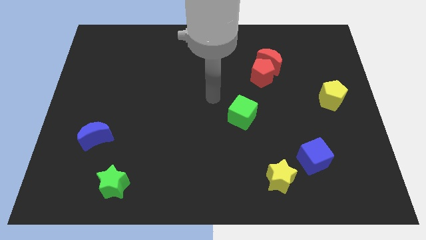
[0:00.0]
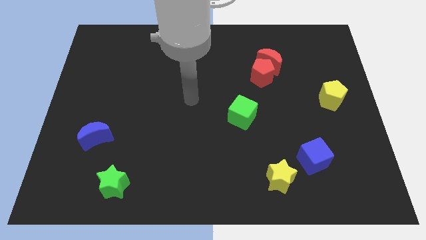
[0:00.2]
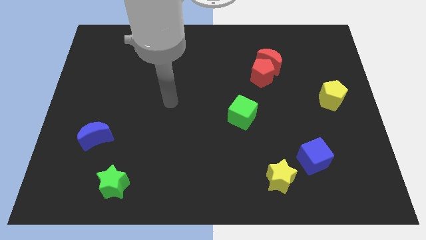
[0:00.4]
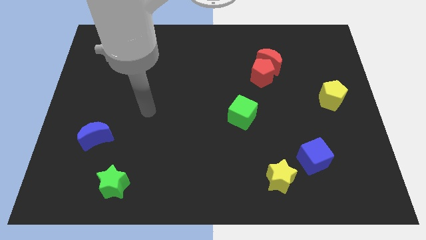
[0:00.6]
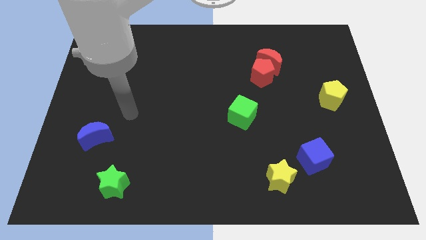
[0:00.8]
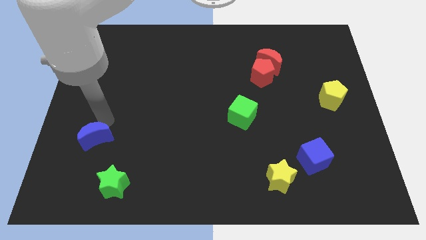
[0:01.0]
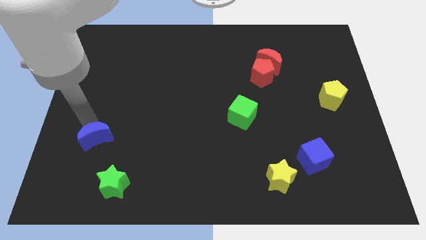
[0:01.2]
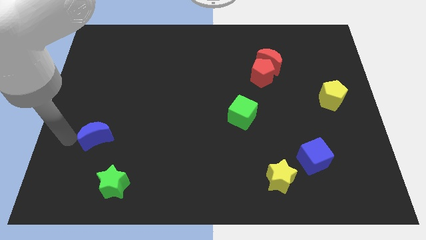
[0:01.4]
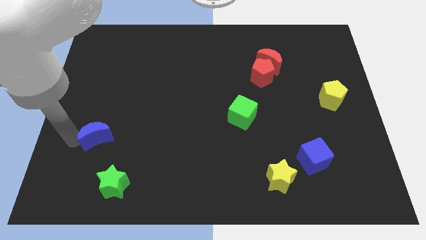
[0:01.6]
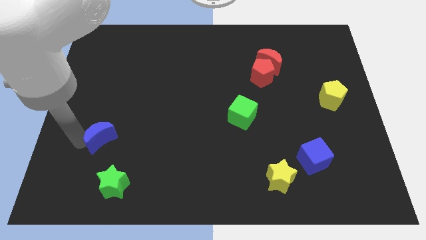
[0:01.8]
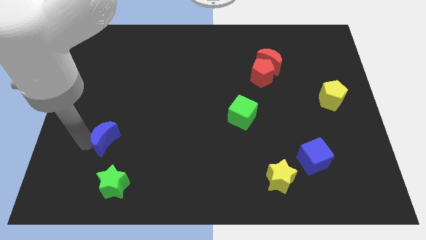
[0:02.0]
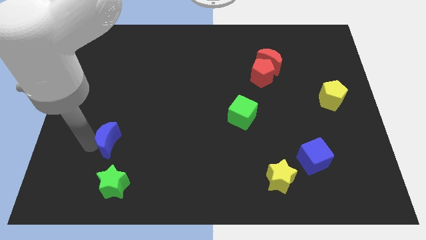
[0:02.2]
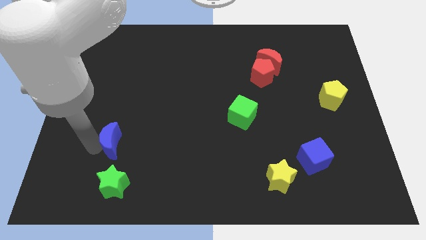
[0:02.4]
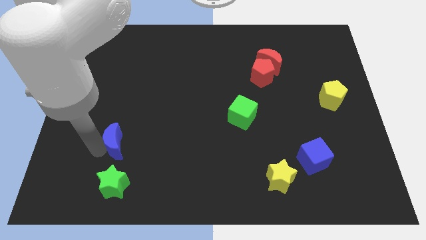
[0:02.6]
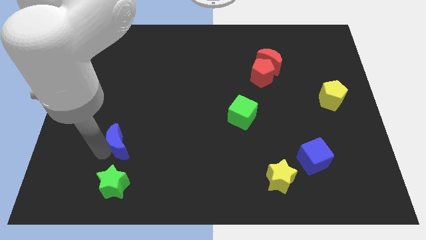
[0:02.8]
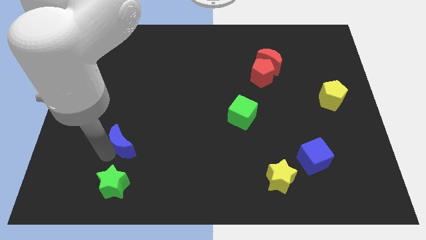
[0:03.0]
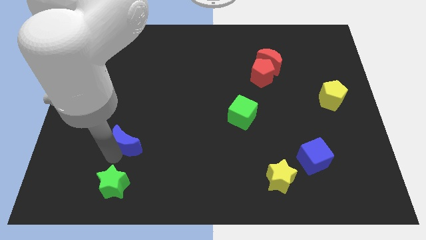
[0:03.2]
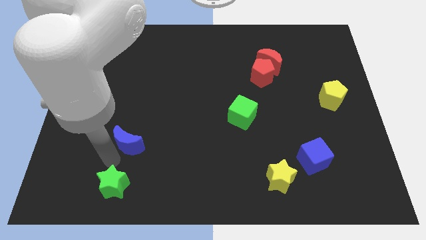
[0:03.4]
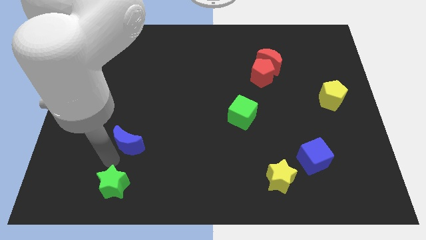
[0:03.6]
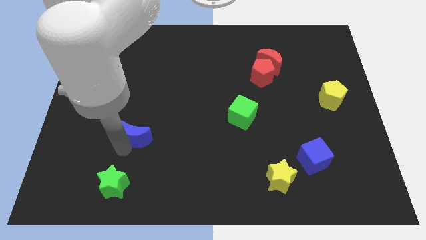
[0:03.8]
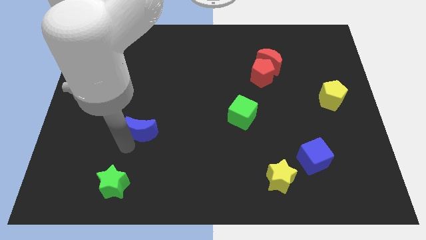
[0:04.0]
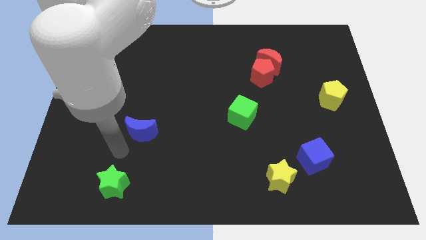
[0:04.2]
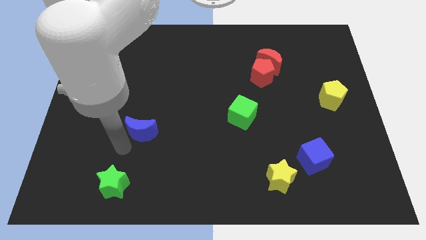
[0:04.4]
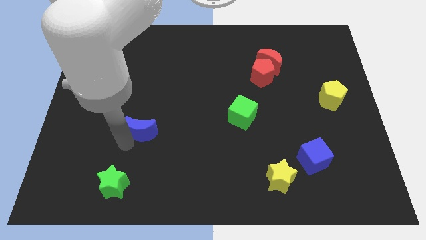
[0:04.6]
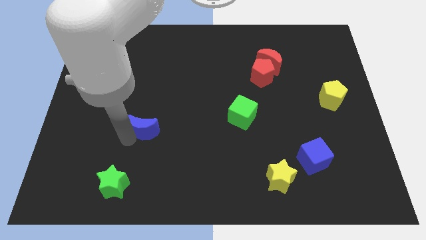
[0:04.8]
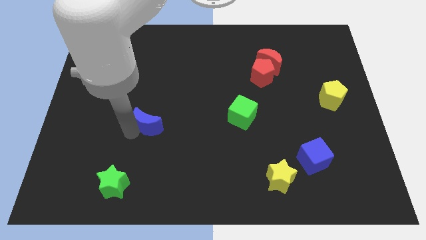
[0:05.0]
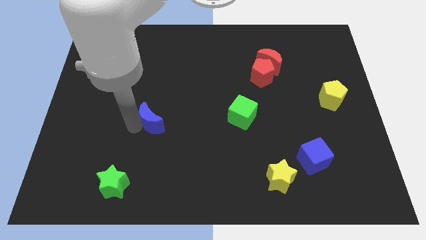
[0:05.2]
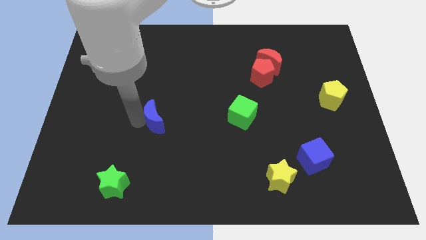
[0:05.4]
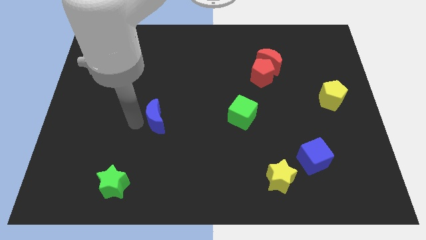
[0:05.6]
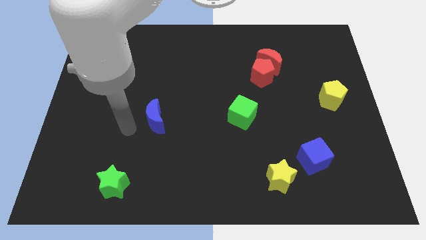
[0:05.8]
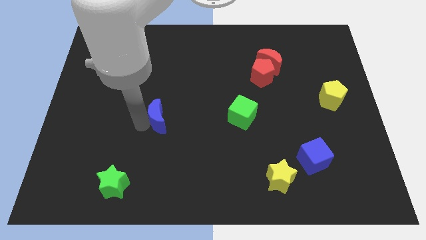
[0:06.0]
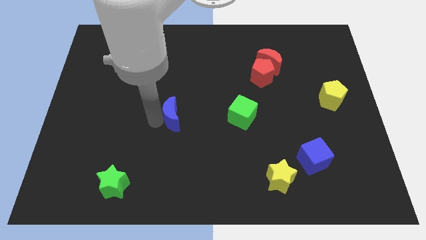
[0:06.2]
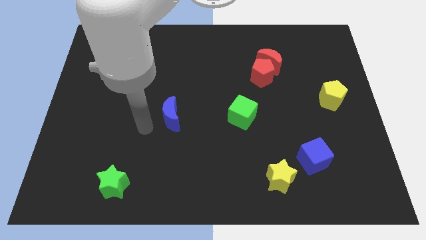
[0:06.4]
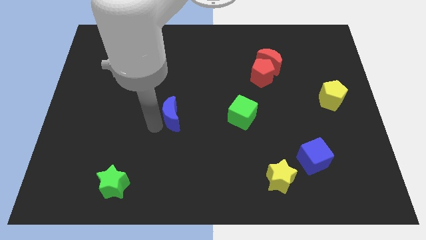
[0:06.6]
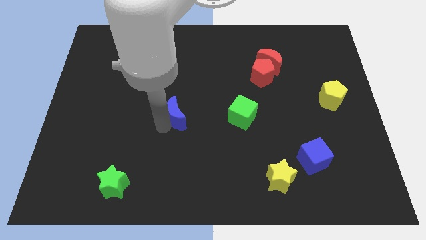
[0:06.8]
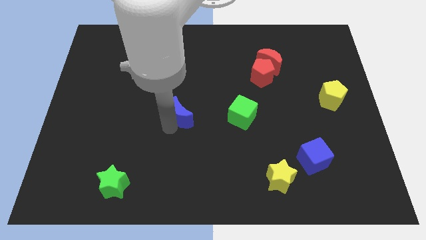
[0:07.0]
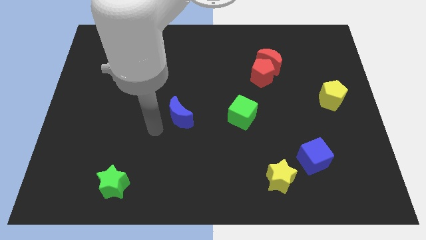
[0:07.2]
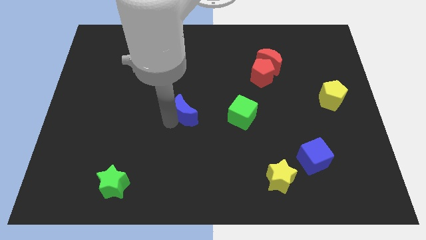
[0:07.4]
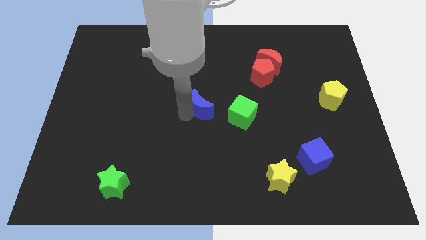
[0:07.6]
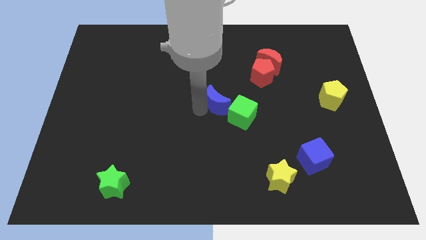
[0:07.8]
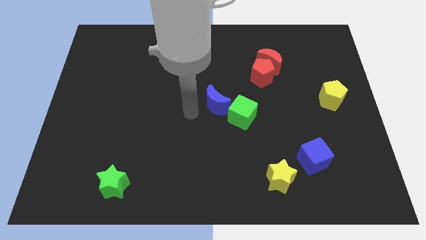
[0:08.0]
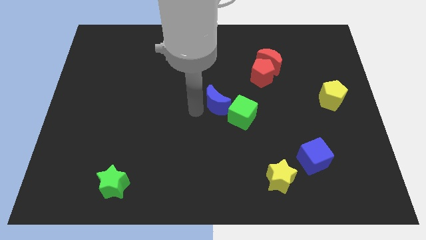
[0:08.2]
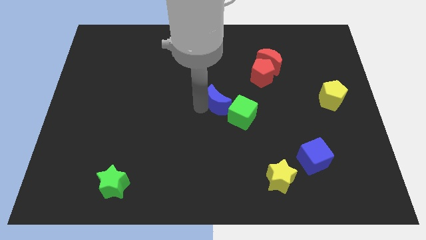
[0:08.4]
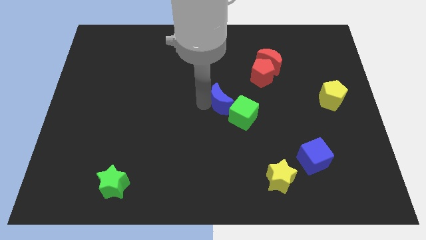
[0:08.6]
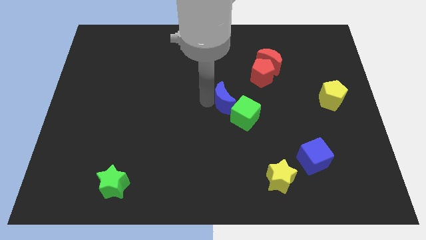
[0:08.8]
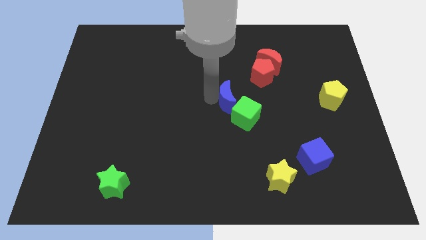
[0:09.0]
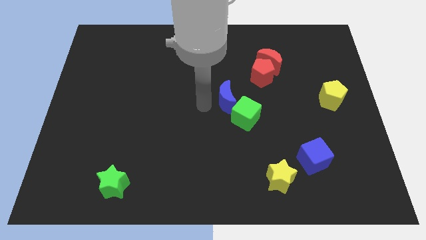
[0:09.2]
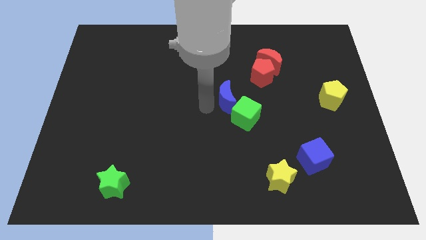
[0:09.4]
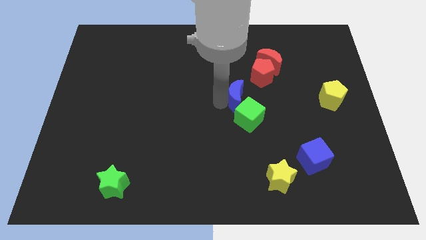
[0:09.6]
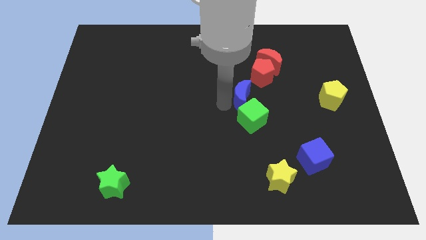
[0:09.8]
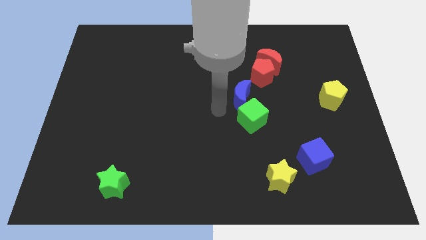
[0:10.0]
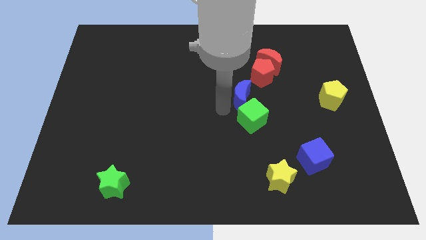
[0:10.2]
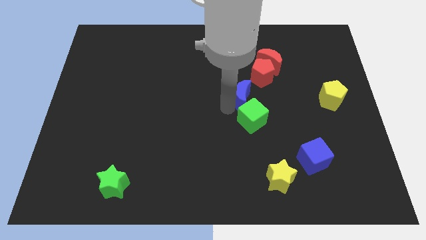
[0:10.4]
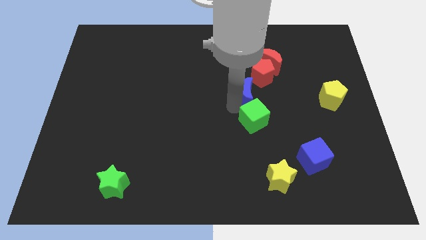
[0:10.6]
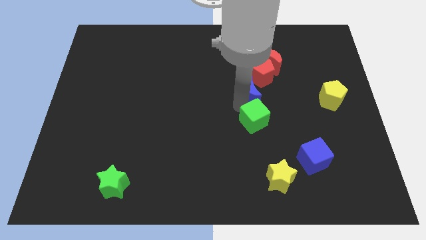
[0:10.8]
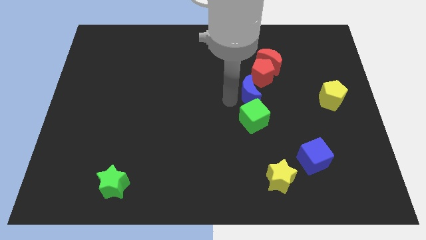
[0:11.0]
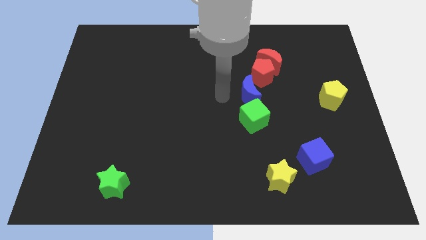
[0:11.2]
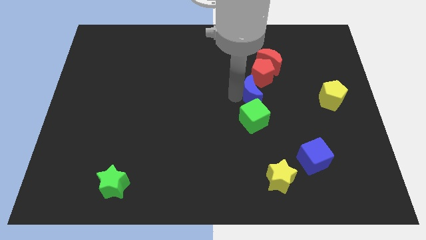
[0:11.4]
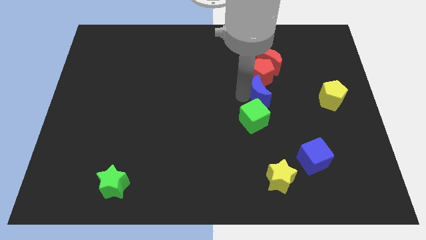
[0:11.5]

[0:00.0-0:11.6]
put the blue moon below the red moon
